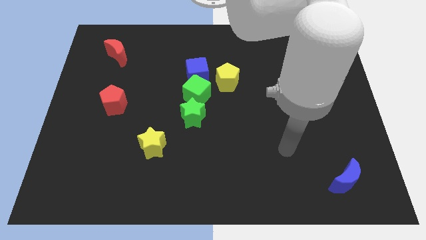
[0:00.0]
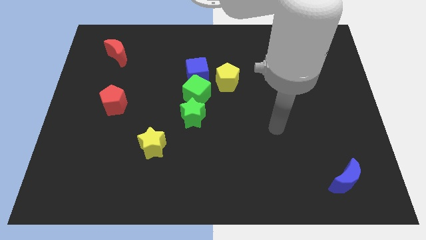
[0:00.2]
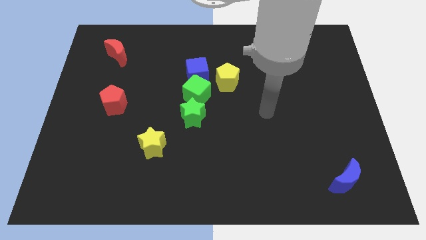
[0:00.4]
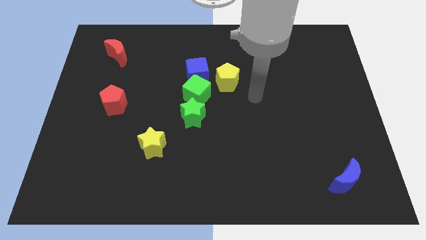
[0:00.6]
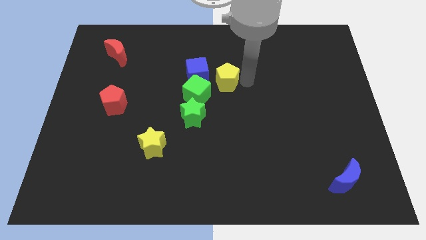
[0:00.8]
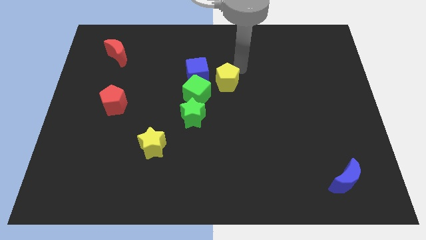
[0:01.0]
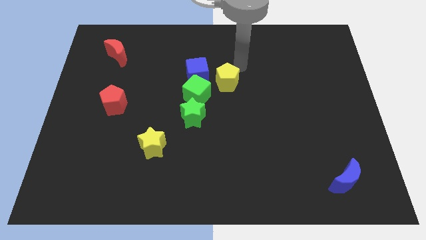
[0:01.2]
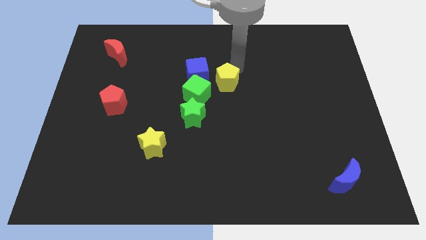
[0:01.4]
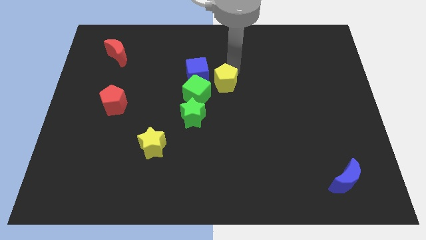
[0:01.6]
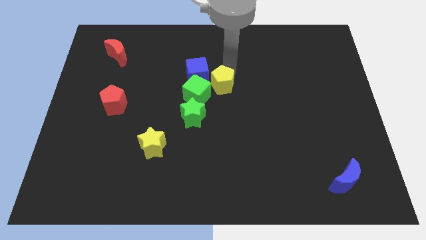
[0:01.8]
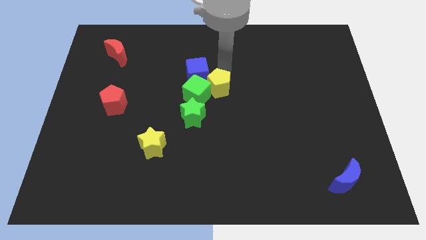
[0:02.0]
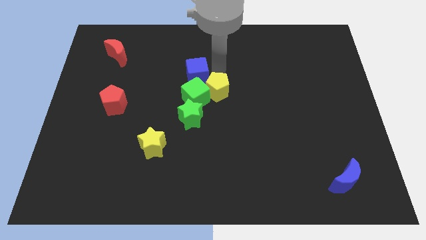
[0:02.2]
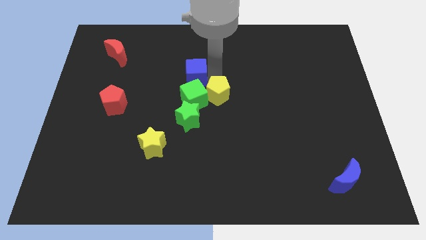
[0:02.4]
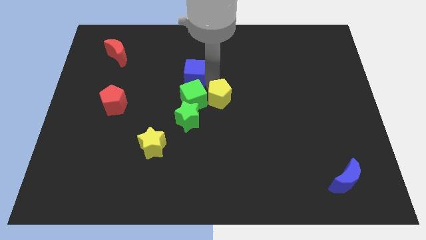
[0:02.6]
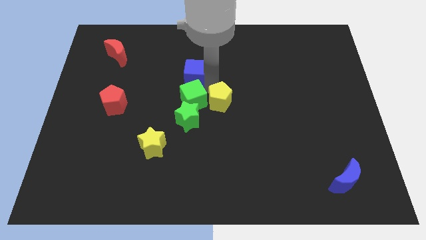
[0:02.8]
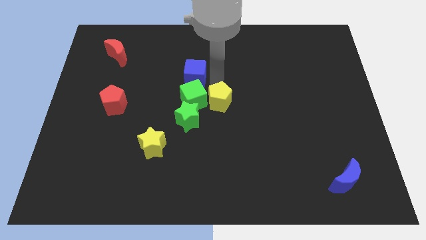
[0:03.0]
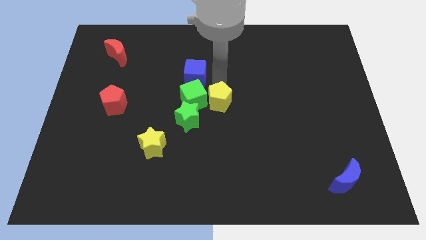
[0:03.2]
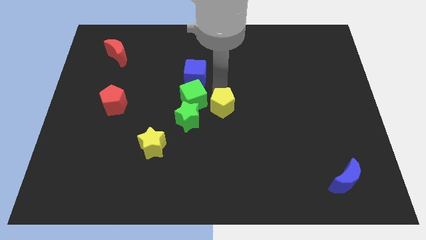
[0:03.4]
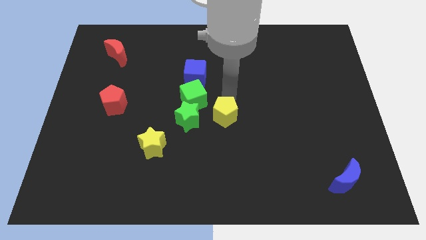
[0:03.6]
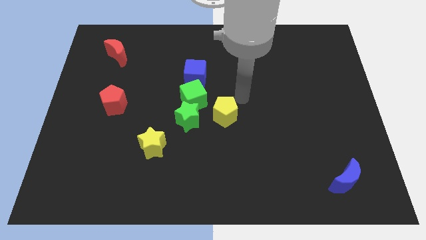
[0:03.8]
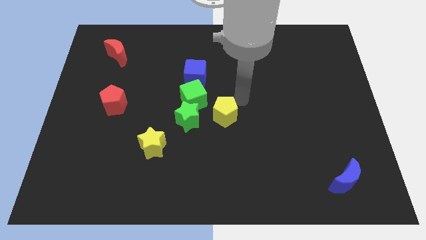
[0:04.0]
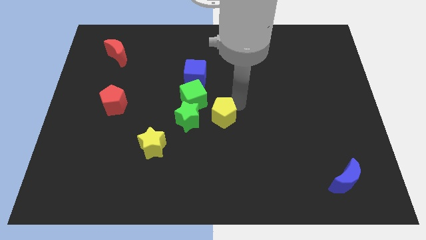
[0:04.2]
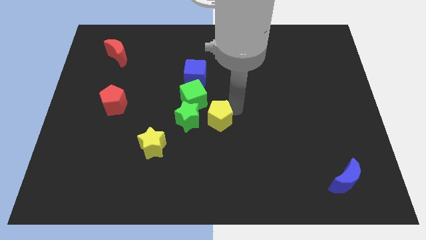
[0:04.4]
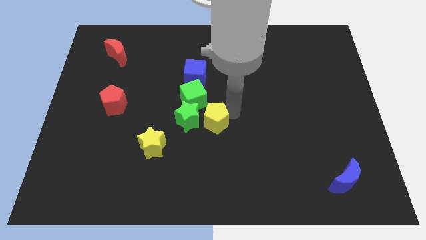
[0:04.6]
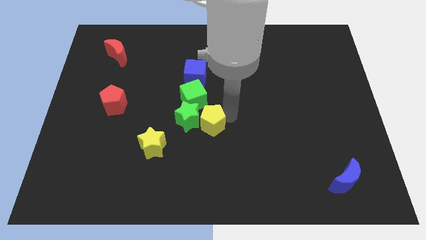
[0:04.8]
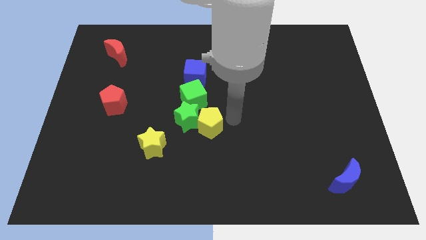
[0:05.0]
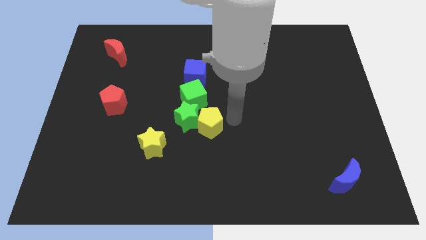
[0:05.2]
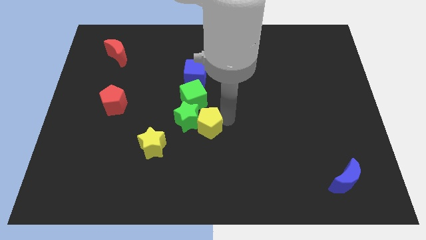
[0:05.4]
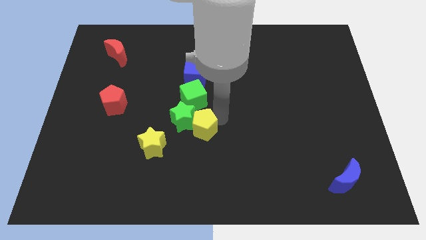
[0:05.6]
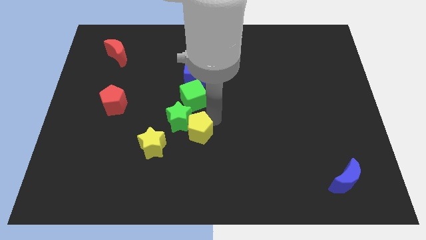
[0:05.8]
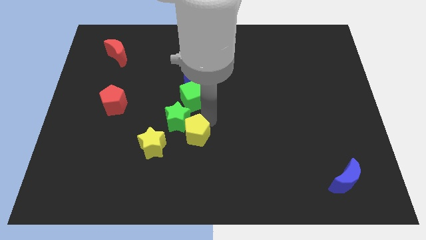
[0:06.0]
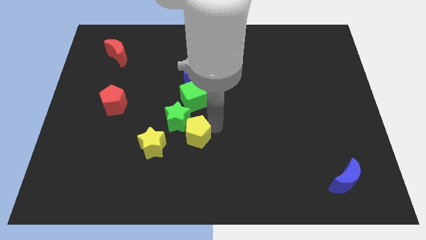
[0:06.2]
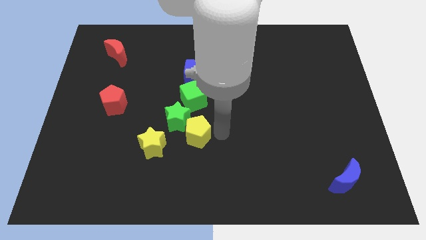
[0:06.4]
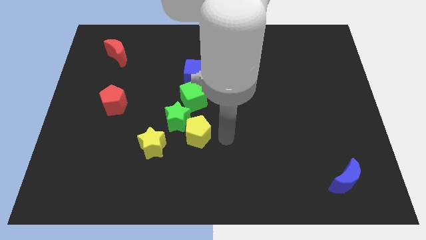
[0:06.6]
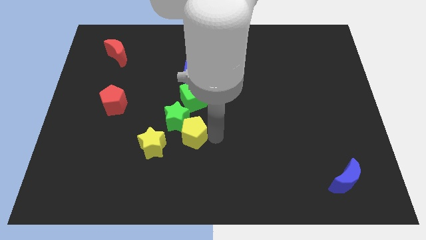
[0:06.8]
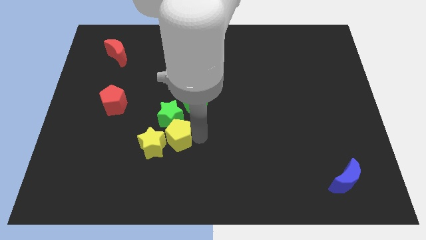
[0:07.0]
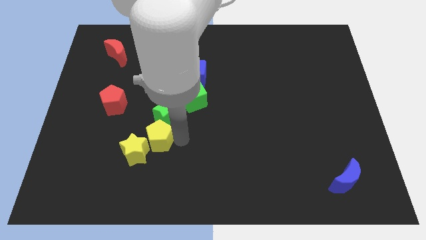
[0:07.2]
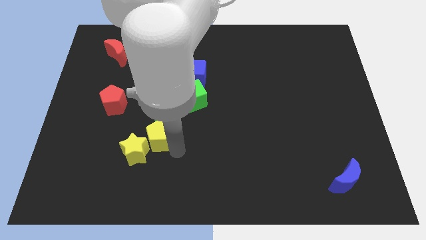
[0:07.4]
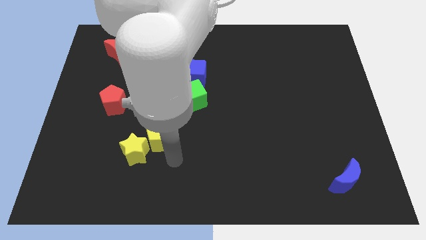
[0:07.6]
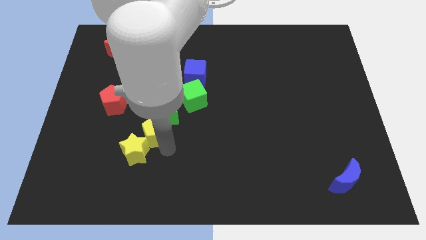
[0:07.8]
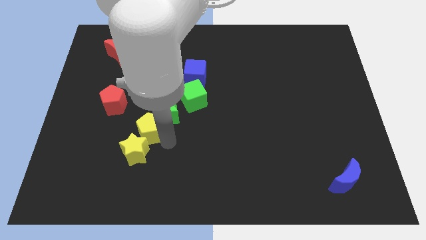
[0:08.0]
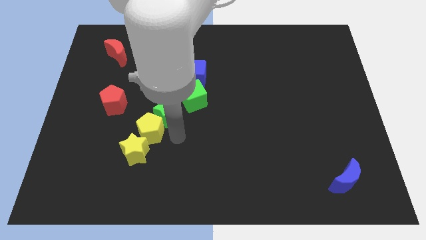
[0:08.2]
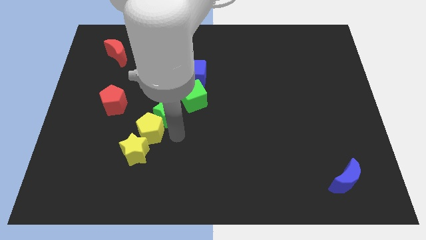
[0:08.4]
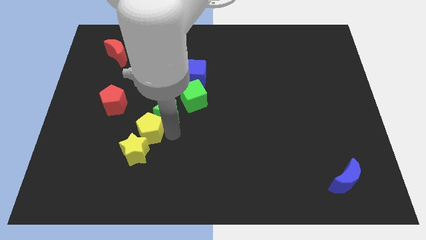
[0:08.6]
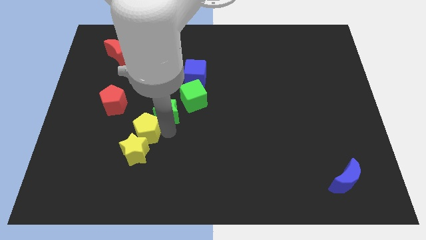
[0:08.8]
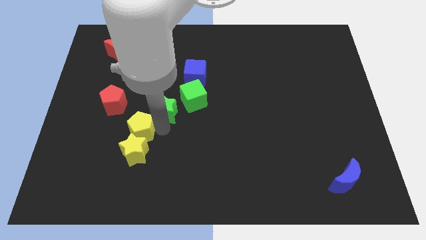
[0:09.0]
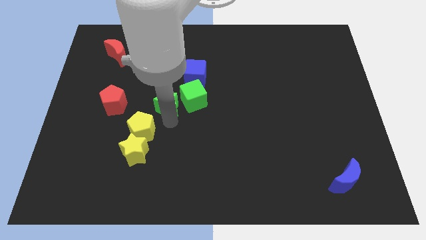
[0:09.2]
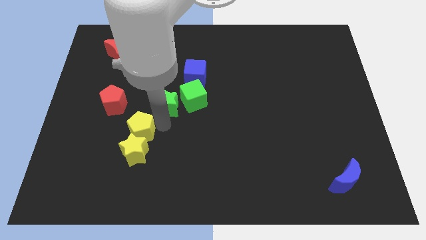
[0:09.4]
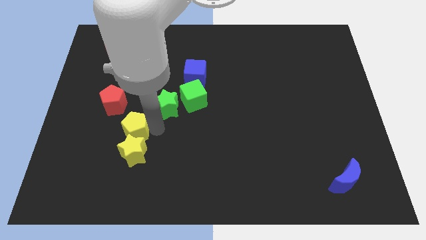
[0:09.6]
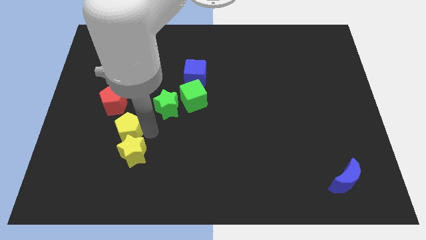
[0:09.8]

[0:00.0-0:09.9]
slide the yellow pentagon below the red pentagon

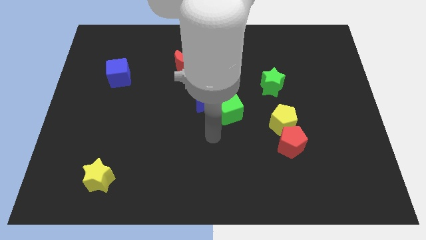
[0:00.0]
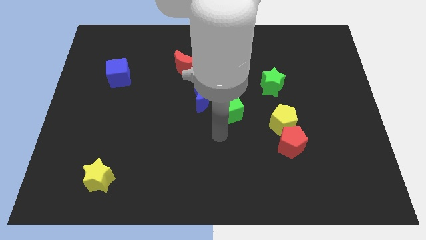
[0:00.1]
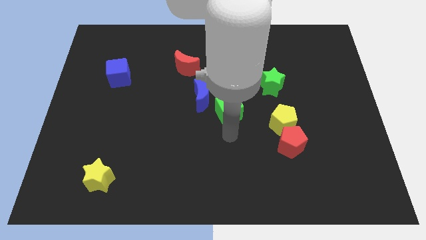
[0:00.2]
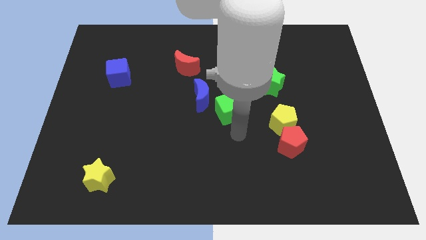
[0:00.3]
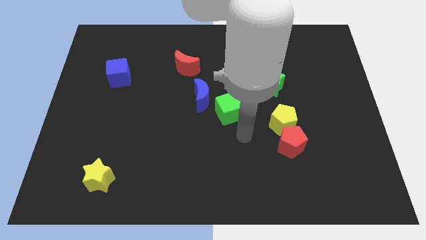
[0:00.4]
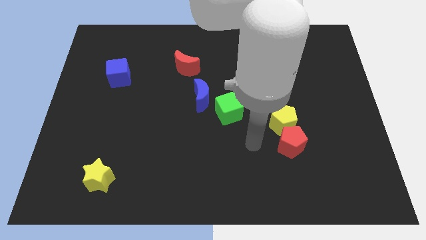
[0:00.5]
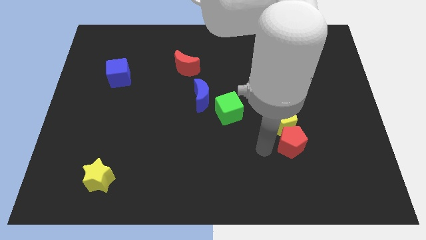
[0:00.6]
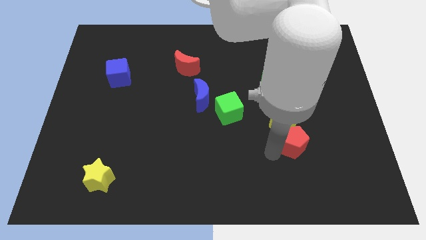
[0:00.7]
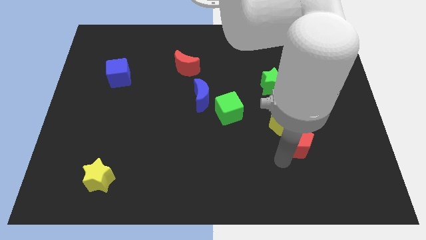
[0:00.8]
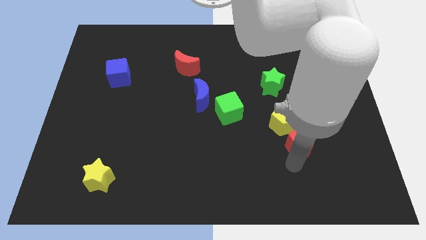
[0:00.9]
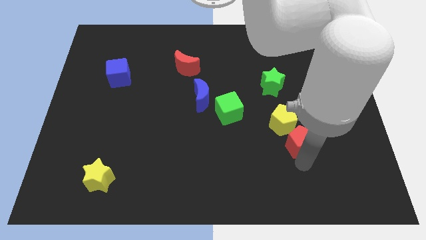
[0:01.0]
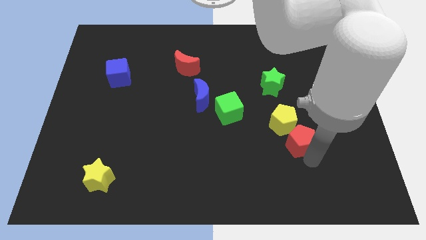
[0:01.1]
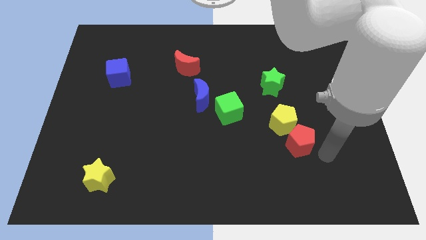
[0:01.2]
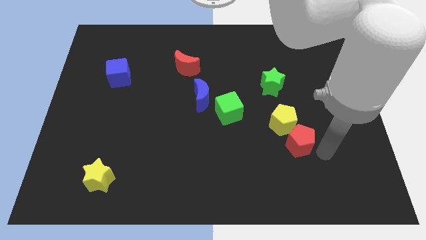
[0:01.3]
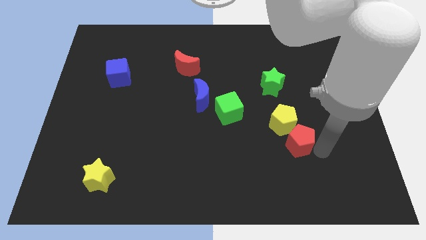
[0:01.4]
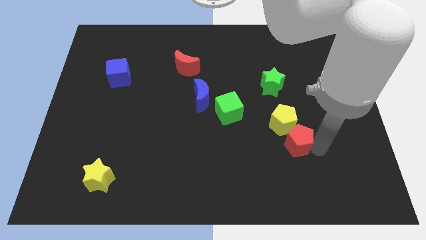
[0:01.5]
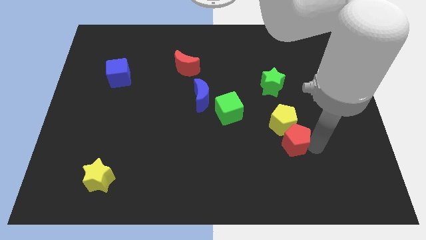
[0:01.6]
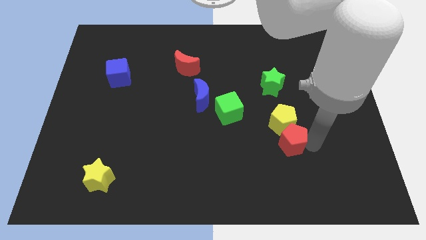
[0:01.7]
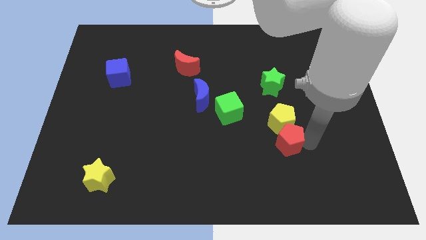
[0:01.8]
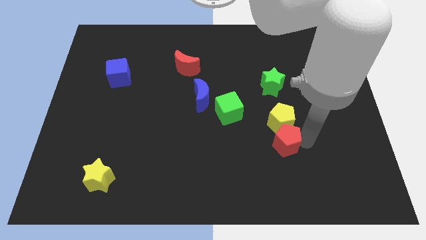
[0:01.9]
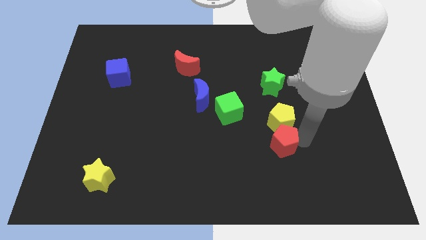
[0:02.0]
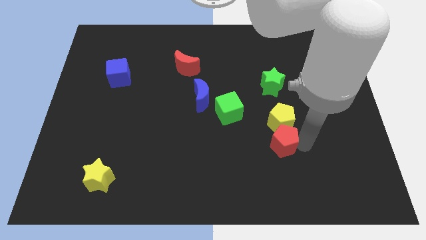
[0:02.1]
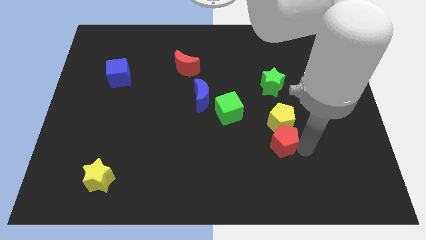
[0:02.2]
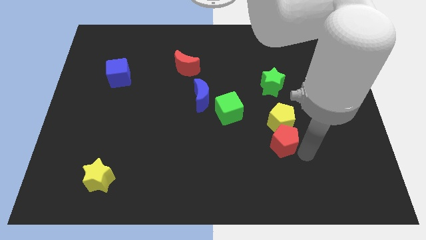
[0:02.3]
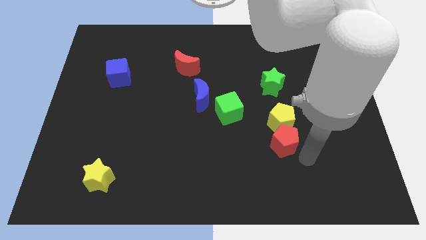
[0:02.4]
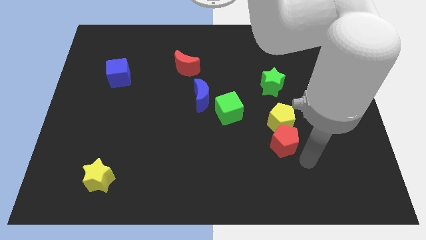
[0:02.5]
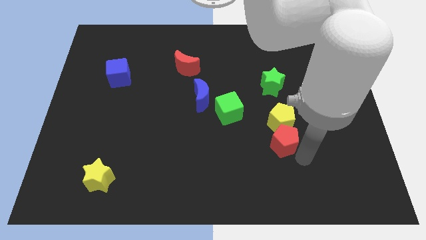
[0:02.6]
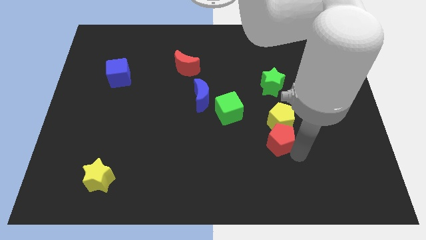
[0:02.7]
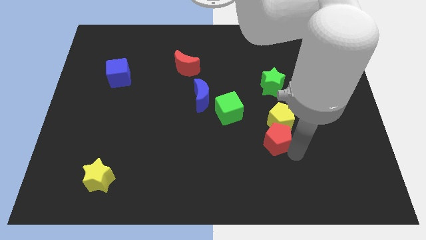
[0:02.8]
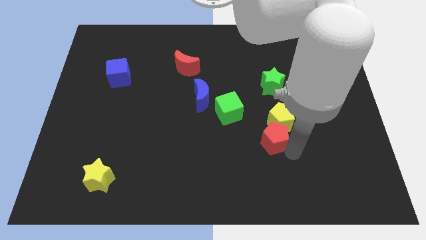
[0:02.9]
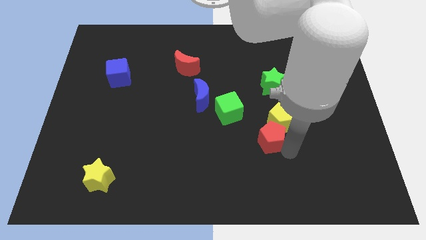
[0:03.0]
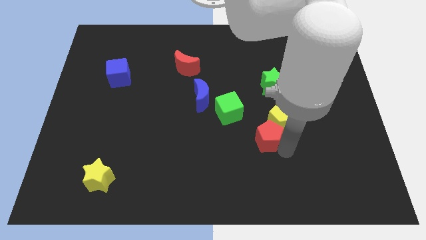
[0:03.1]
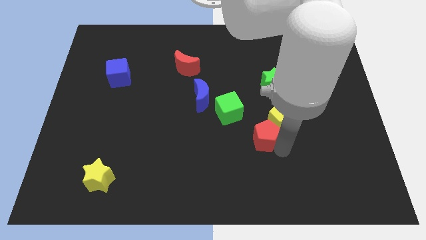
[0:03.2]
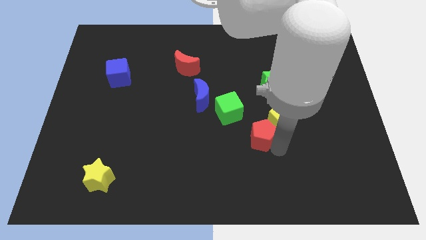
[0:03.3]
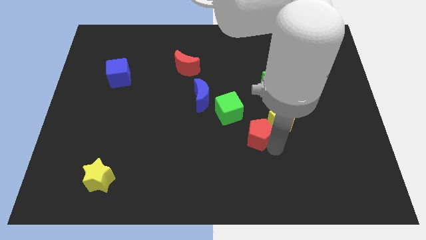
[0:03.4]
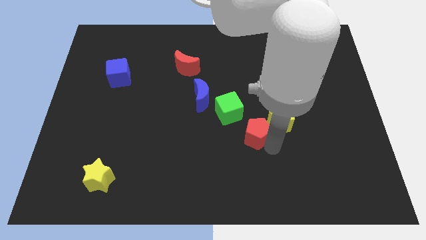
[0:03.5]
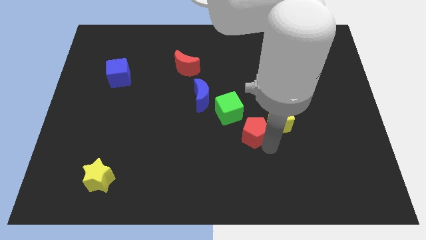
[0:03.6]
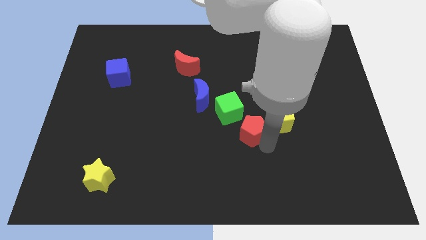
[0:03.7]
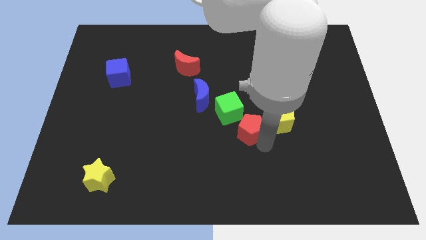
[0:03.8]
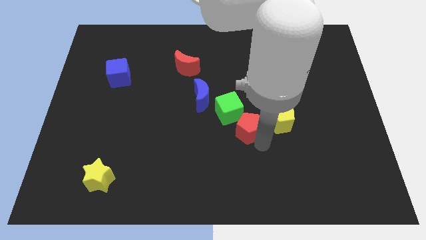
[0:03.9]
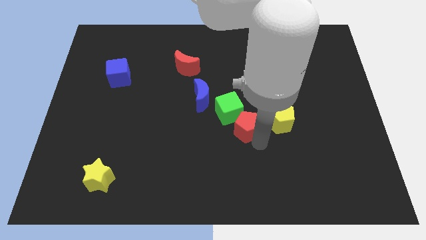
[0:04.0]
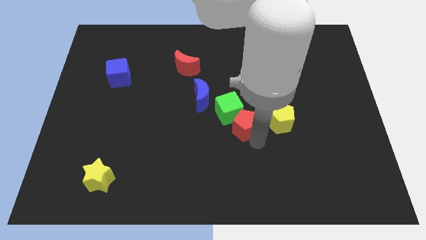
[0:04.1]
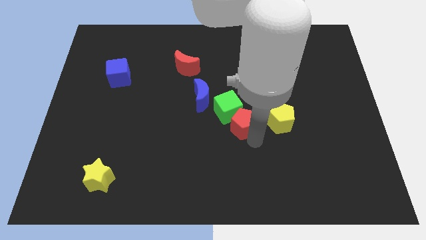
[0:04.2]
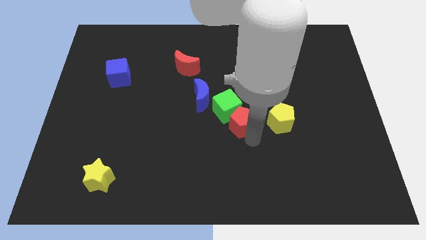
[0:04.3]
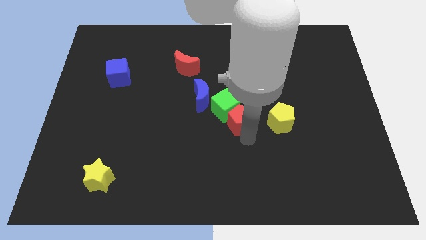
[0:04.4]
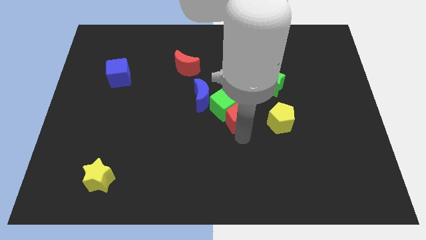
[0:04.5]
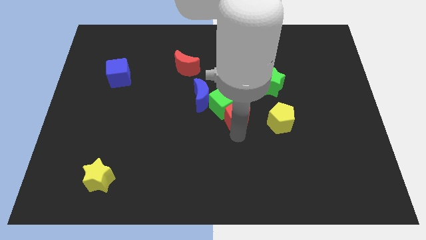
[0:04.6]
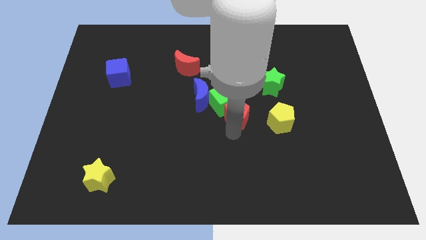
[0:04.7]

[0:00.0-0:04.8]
put the red pentagon to the bottom left side of the green star
